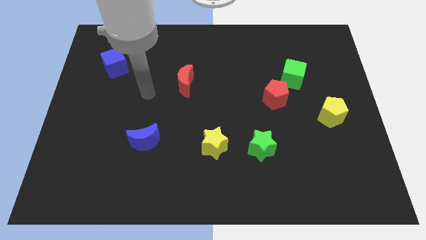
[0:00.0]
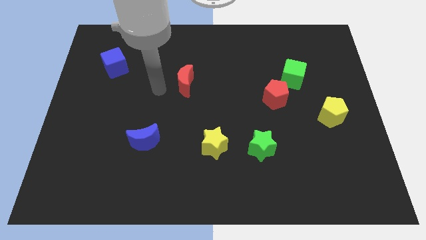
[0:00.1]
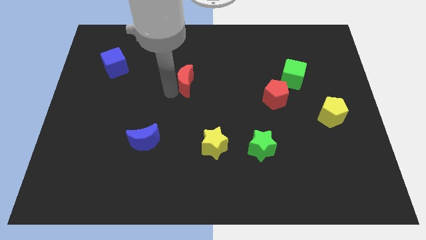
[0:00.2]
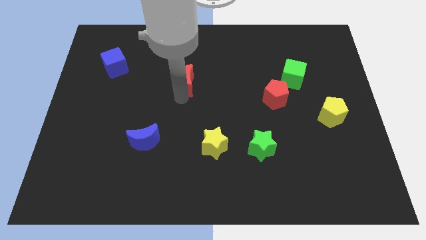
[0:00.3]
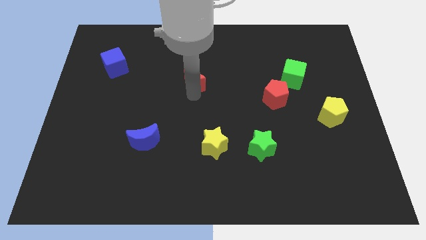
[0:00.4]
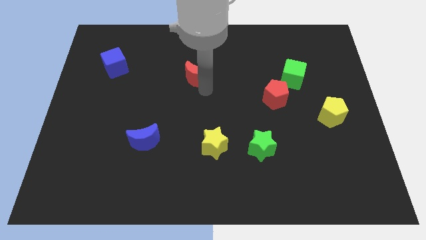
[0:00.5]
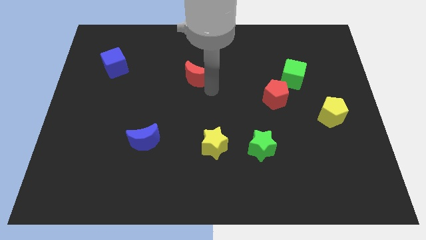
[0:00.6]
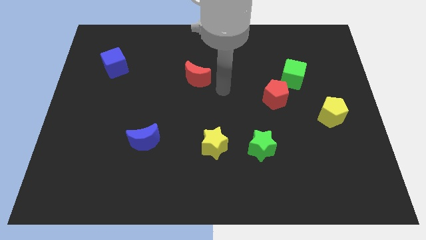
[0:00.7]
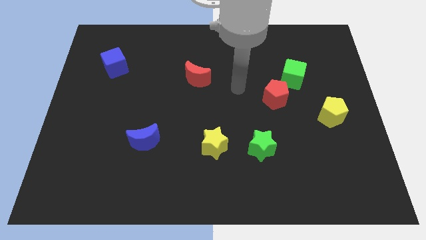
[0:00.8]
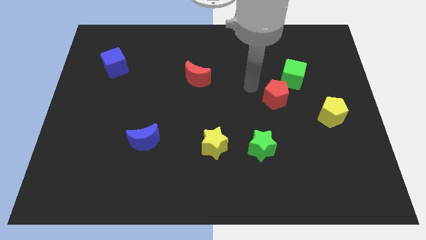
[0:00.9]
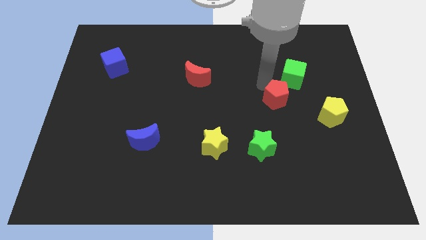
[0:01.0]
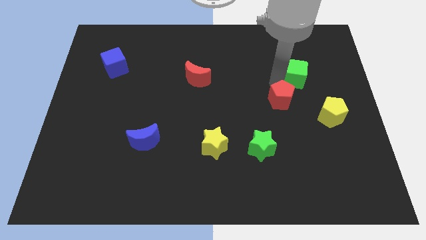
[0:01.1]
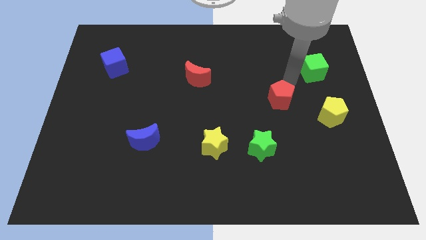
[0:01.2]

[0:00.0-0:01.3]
separate the red pentagon from the green cube

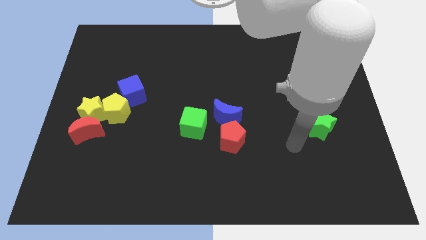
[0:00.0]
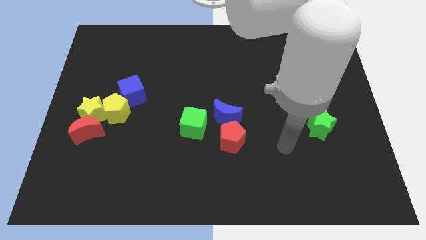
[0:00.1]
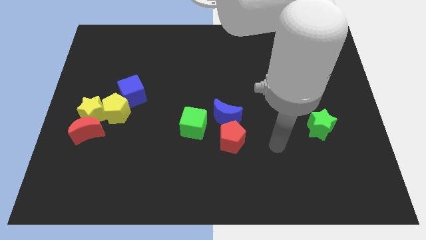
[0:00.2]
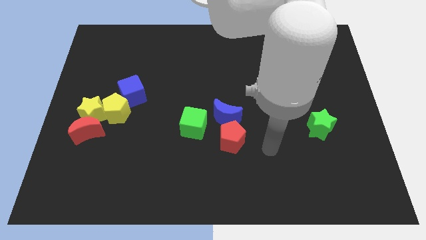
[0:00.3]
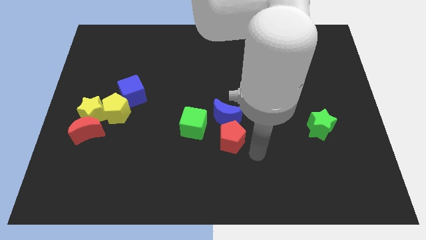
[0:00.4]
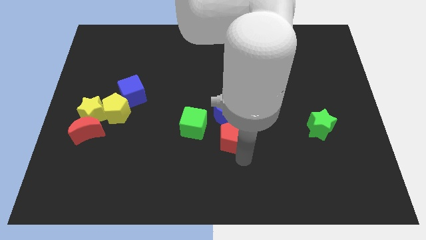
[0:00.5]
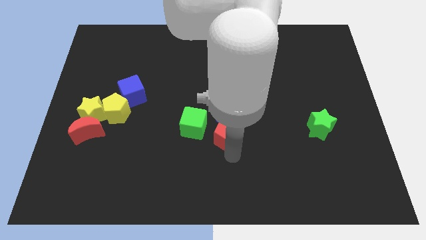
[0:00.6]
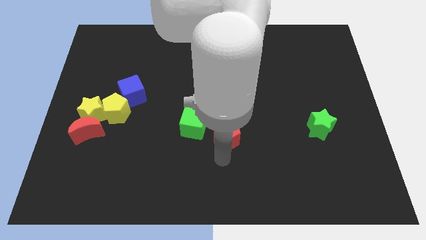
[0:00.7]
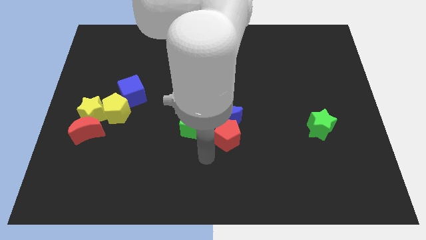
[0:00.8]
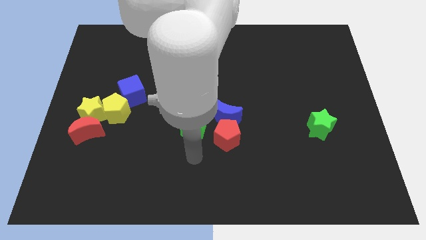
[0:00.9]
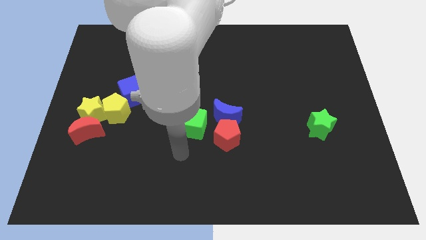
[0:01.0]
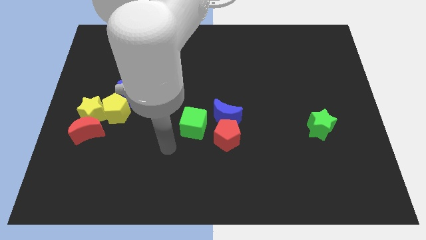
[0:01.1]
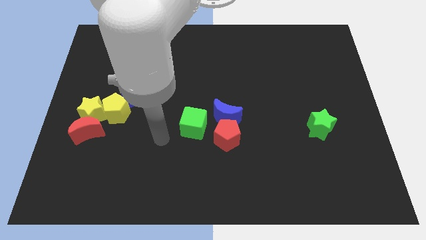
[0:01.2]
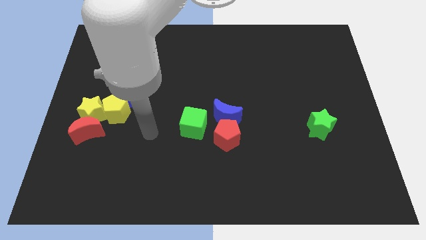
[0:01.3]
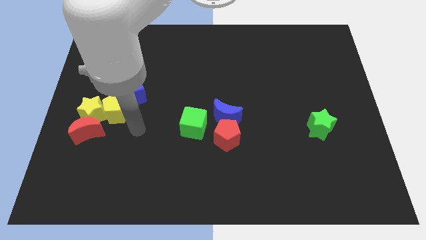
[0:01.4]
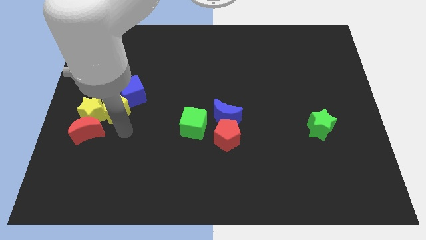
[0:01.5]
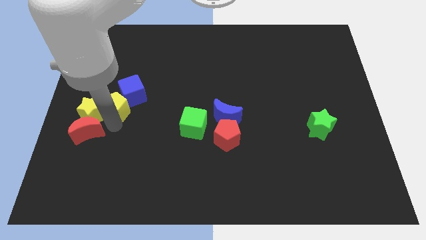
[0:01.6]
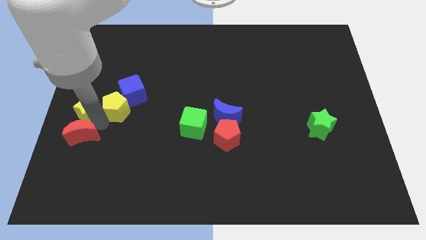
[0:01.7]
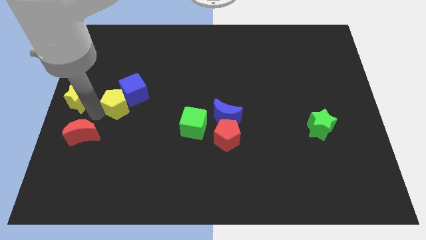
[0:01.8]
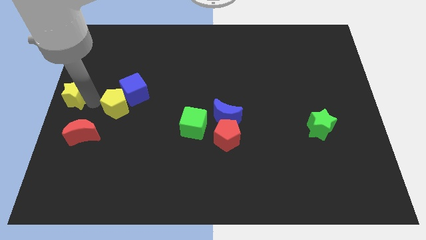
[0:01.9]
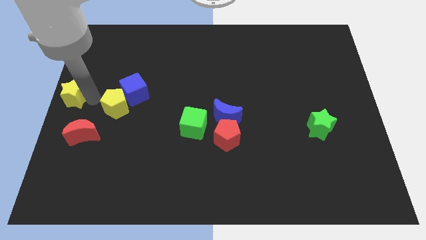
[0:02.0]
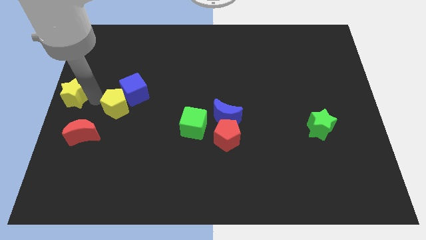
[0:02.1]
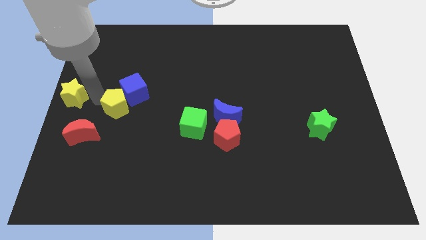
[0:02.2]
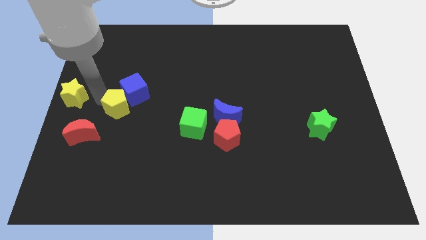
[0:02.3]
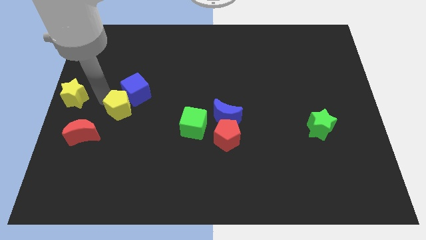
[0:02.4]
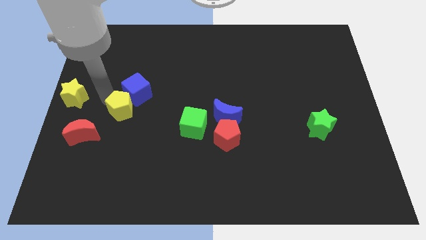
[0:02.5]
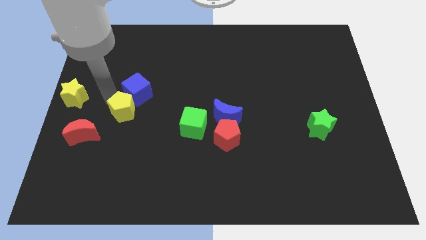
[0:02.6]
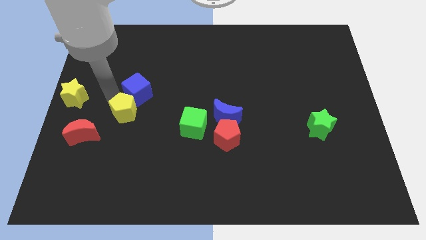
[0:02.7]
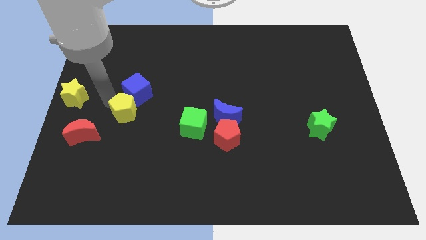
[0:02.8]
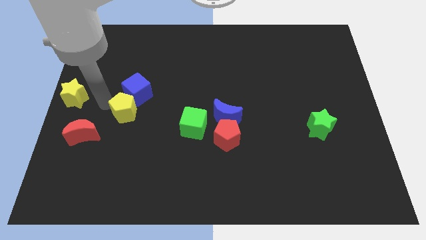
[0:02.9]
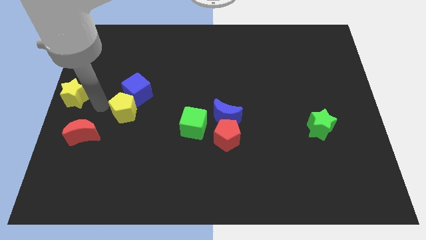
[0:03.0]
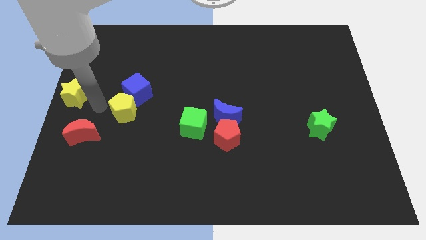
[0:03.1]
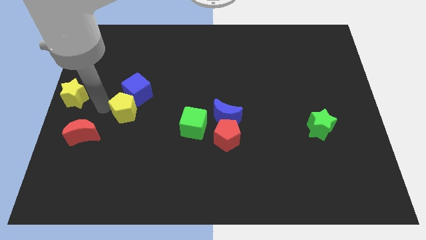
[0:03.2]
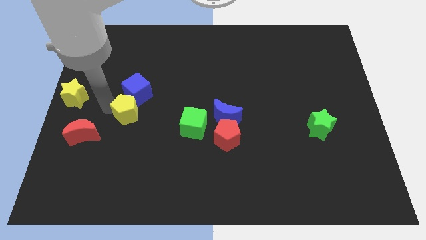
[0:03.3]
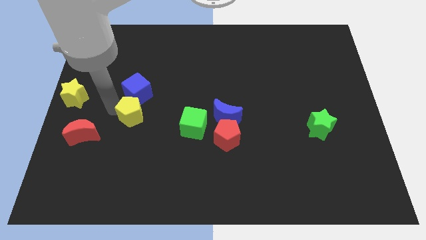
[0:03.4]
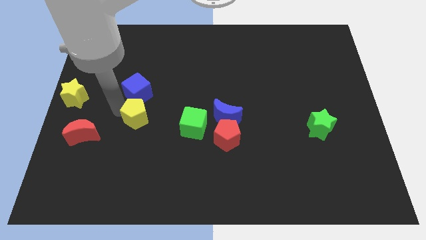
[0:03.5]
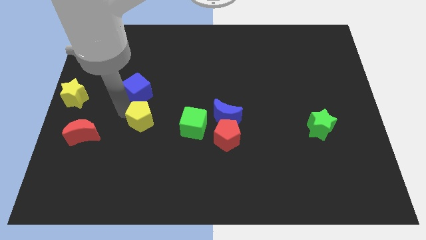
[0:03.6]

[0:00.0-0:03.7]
move the yellow pentagon away from the group of blocks

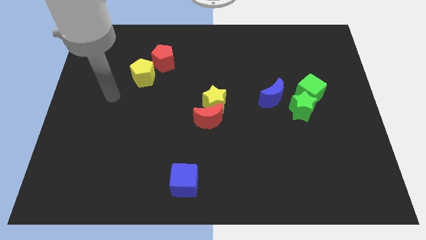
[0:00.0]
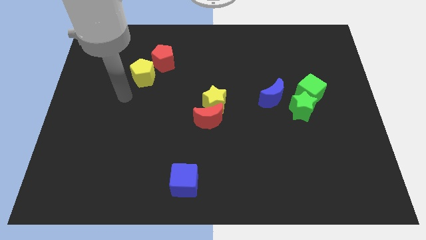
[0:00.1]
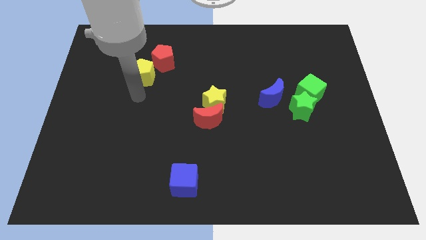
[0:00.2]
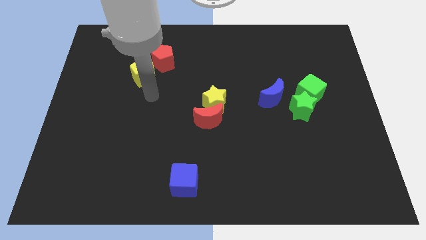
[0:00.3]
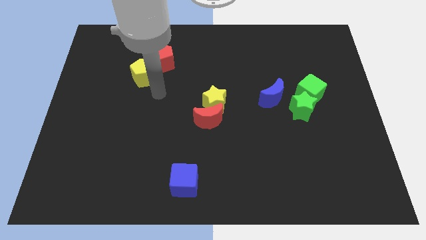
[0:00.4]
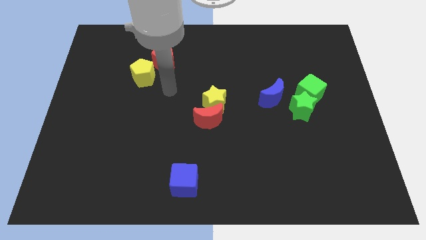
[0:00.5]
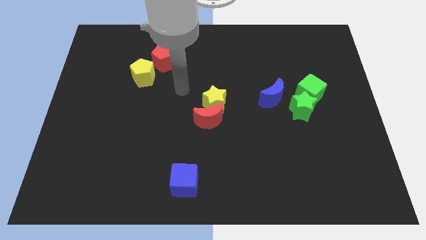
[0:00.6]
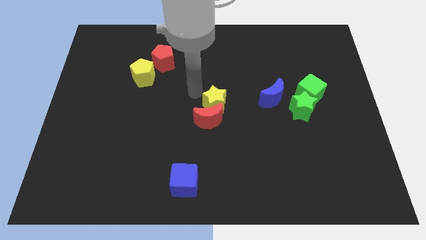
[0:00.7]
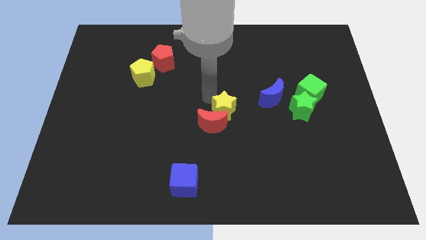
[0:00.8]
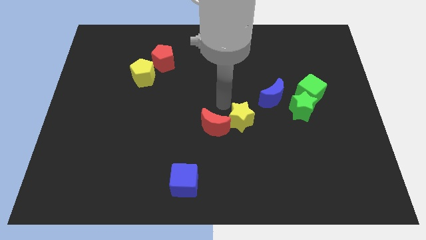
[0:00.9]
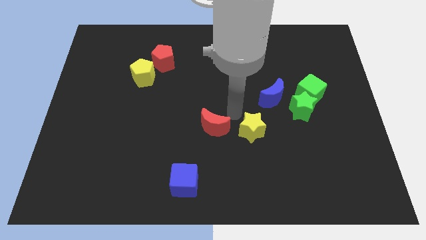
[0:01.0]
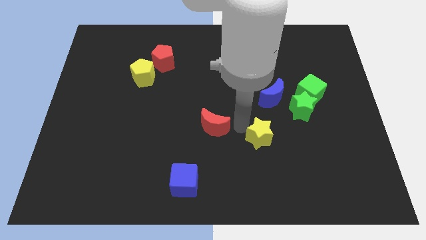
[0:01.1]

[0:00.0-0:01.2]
pull the red moon apart from the yellow star

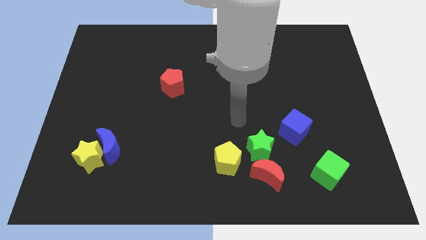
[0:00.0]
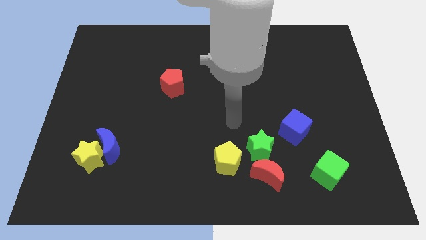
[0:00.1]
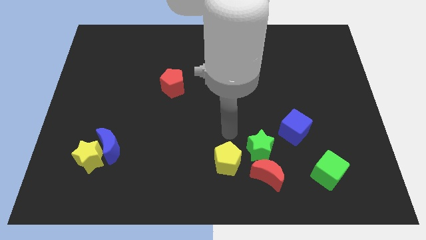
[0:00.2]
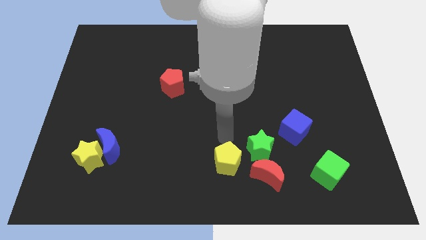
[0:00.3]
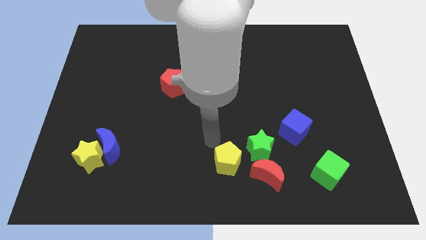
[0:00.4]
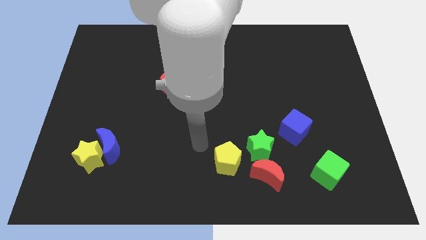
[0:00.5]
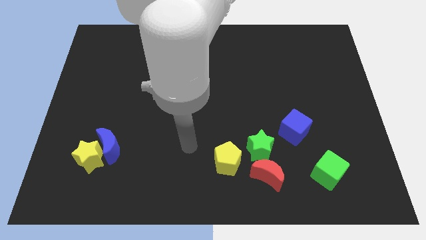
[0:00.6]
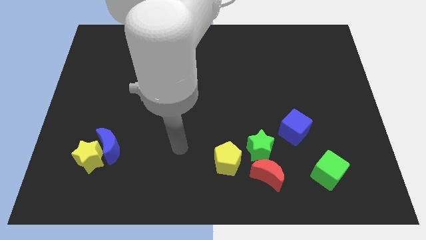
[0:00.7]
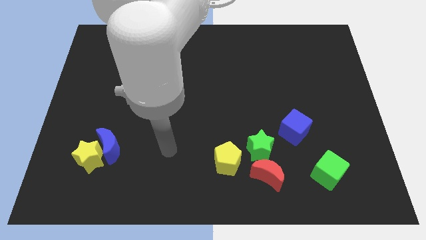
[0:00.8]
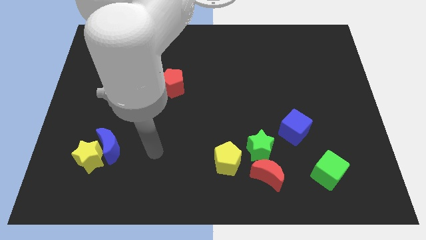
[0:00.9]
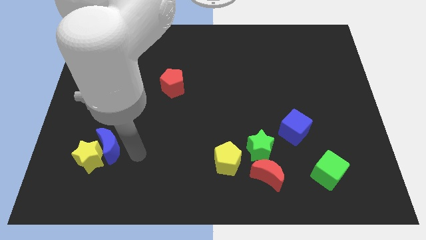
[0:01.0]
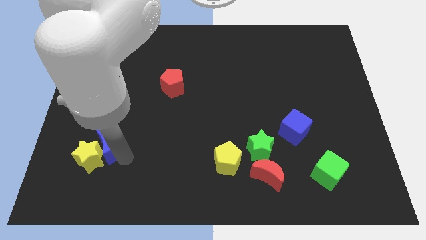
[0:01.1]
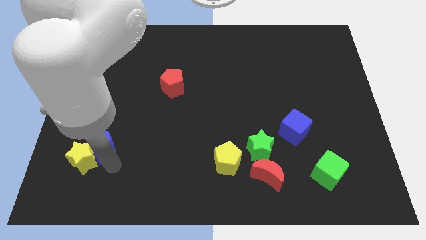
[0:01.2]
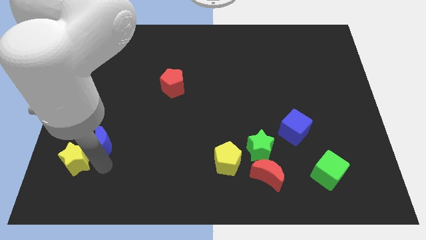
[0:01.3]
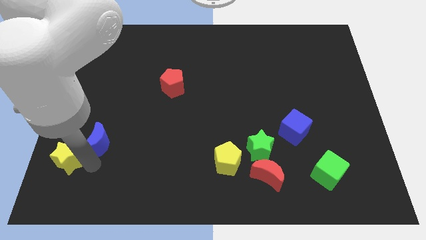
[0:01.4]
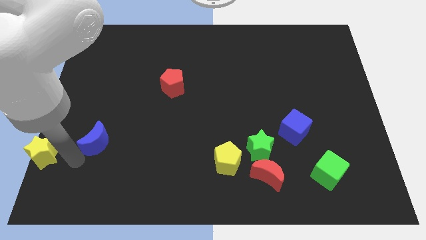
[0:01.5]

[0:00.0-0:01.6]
pull the blue moon apart from the yellow star

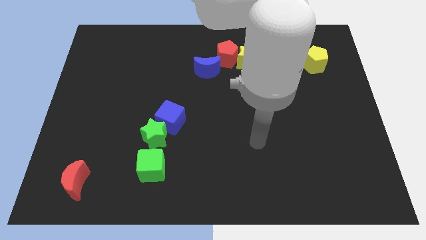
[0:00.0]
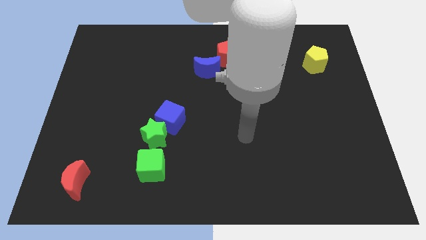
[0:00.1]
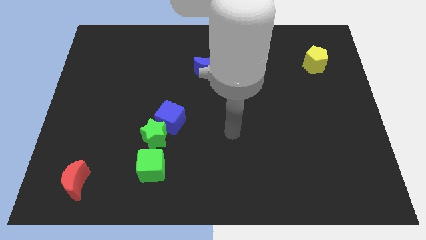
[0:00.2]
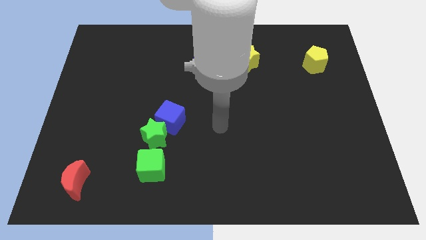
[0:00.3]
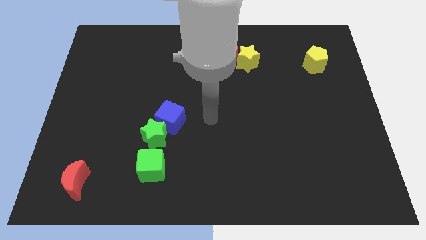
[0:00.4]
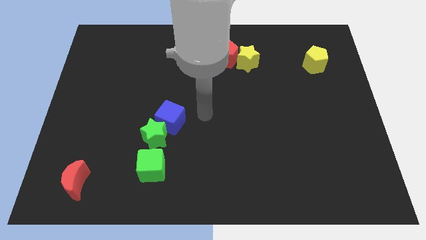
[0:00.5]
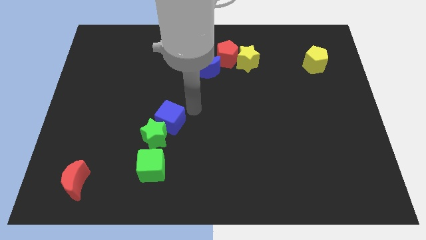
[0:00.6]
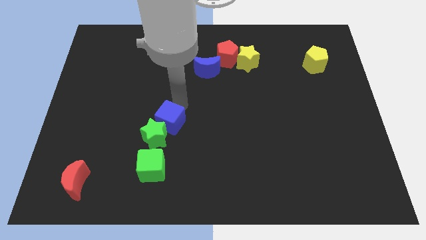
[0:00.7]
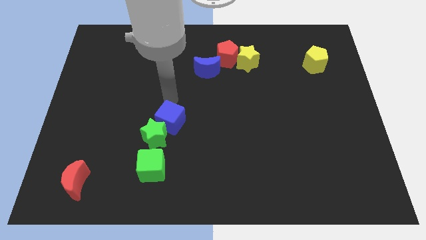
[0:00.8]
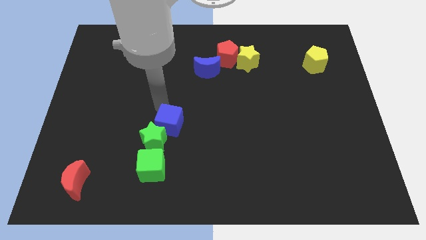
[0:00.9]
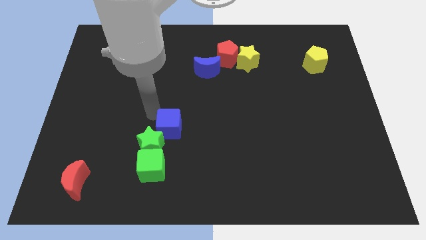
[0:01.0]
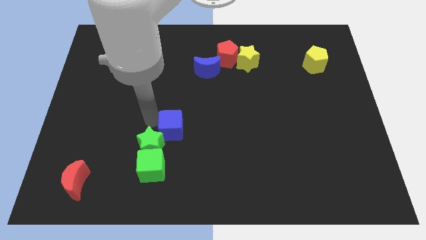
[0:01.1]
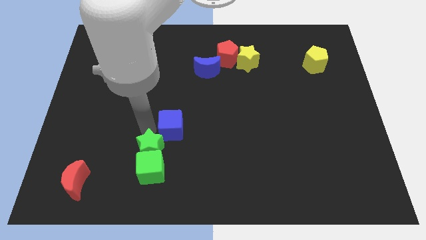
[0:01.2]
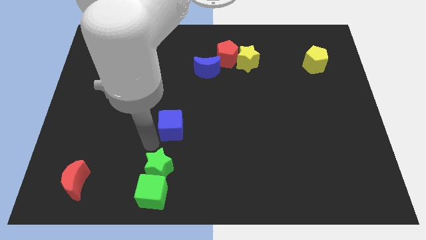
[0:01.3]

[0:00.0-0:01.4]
separate the blue cube from the green star
